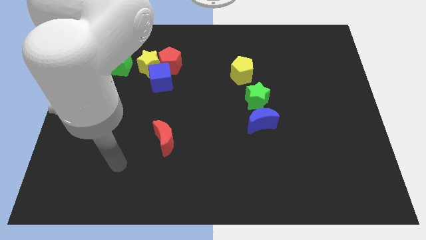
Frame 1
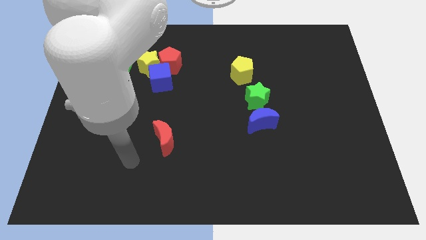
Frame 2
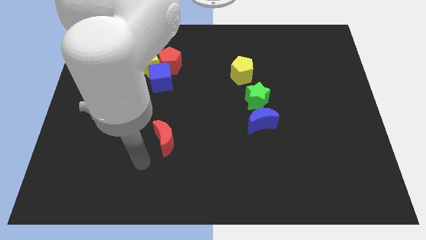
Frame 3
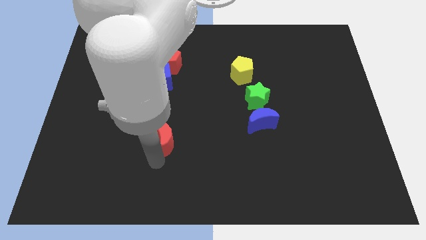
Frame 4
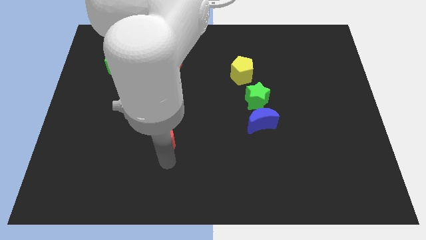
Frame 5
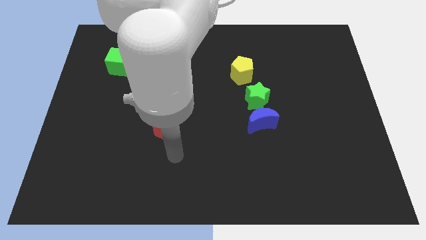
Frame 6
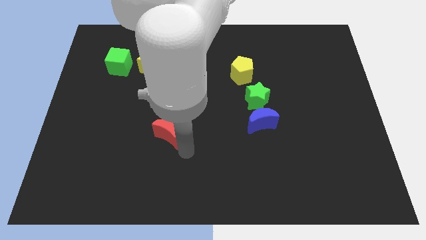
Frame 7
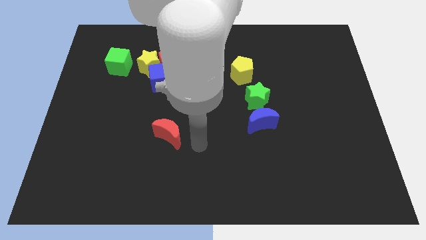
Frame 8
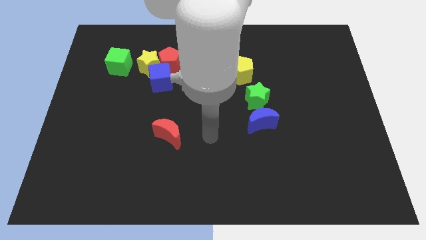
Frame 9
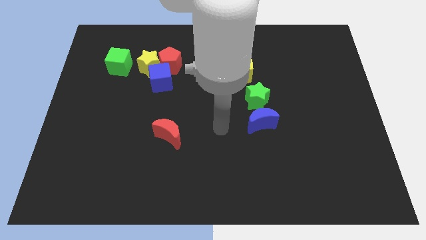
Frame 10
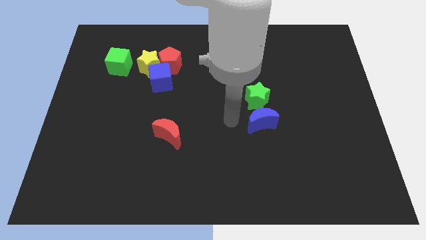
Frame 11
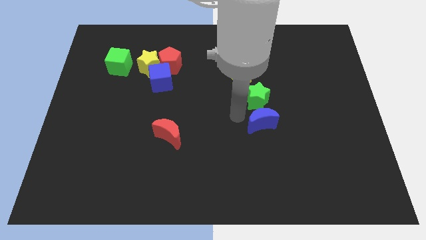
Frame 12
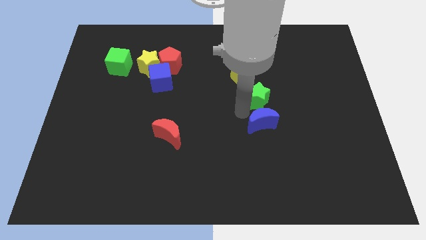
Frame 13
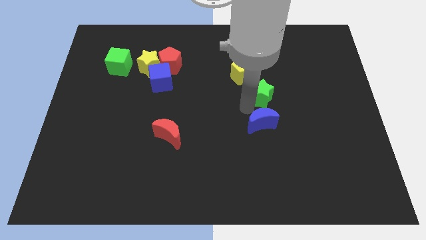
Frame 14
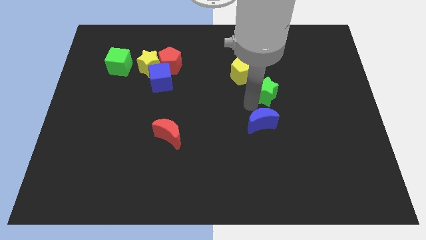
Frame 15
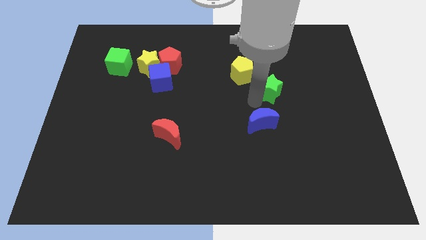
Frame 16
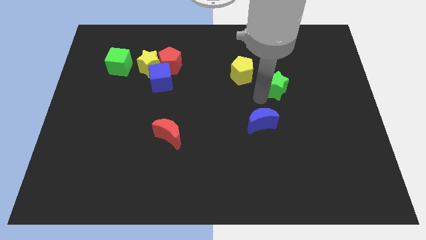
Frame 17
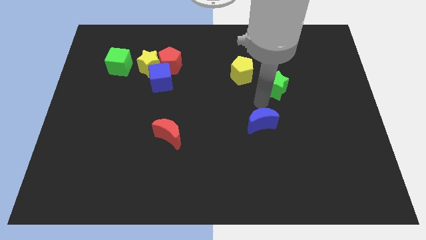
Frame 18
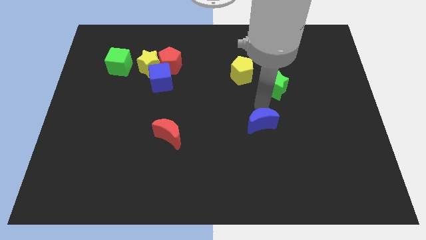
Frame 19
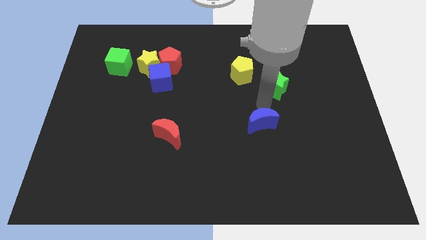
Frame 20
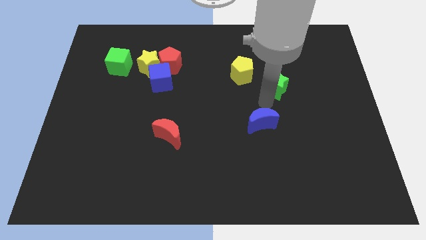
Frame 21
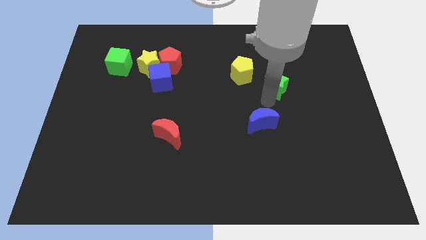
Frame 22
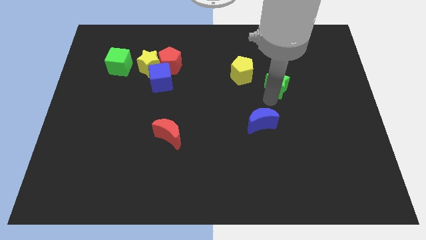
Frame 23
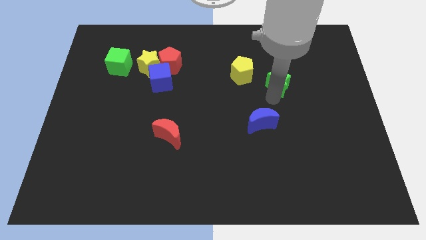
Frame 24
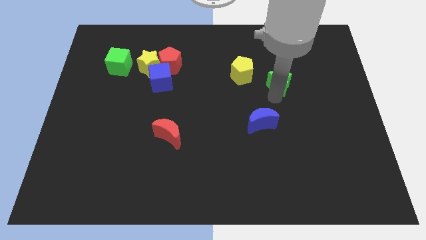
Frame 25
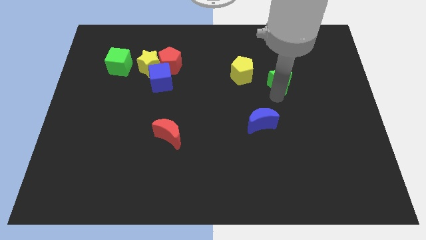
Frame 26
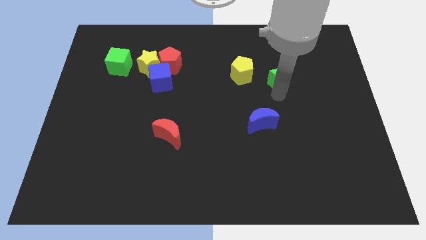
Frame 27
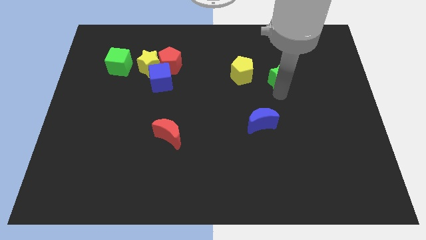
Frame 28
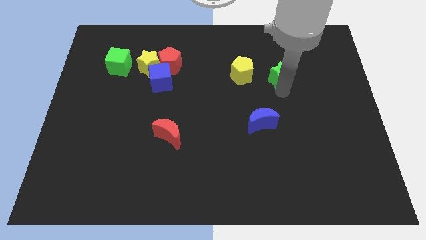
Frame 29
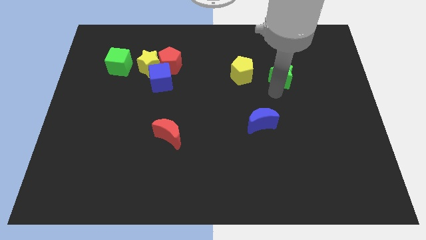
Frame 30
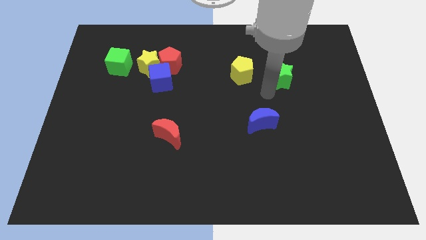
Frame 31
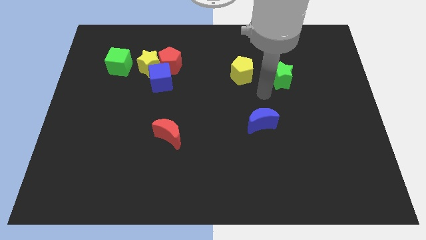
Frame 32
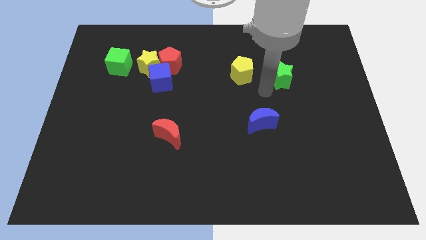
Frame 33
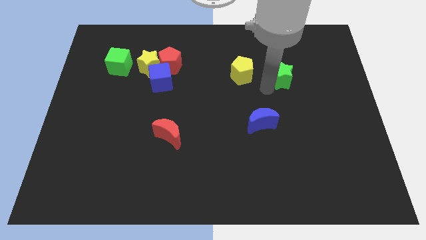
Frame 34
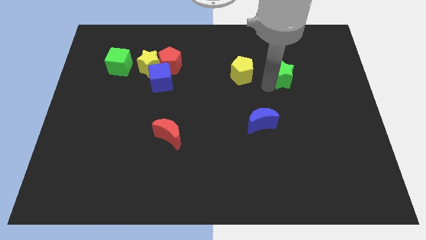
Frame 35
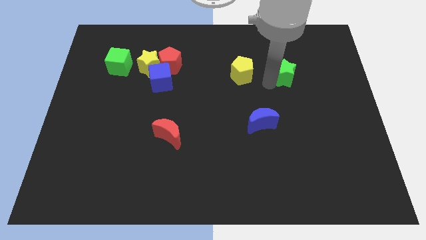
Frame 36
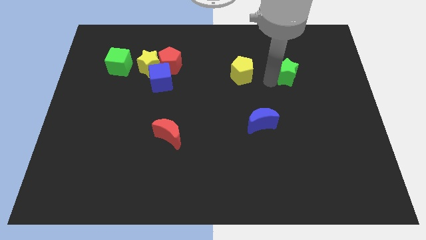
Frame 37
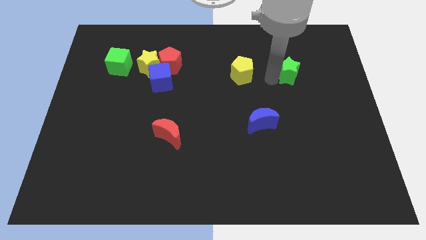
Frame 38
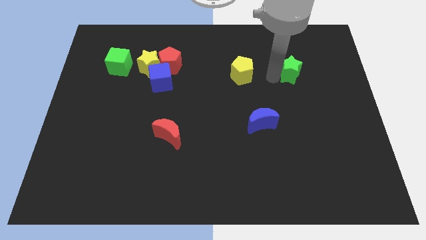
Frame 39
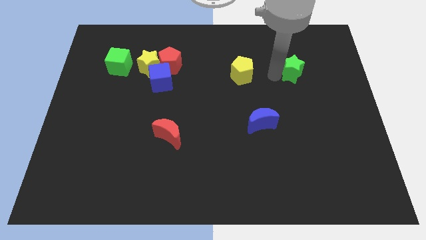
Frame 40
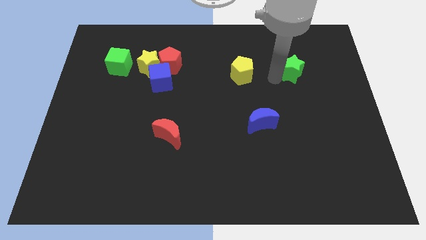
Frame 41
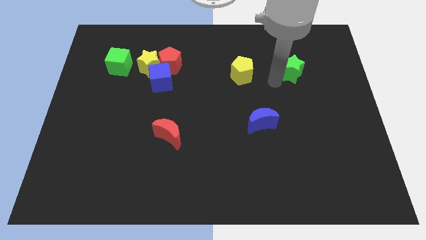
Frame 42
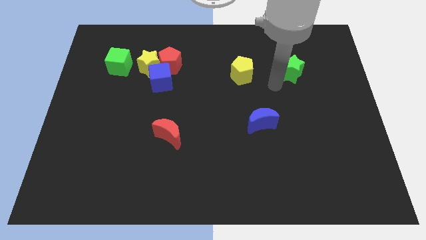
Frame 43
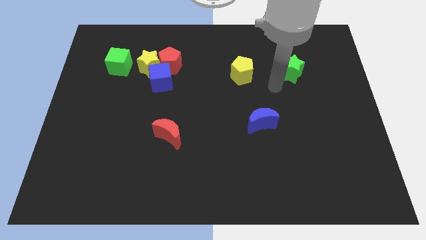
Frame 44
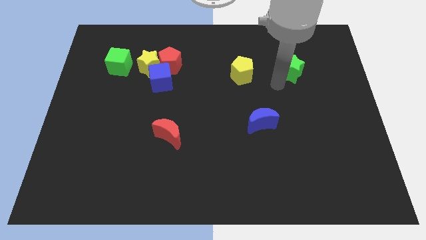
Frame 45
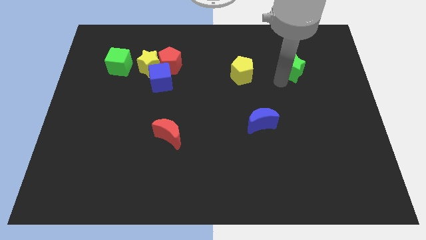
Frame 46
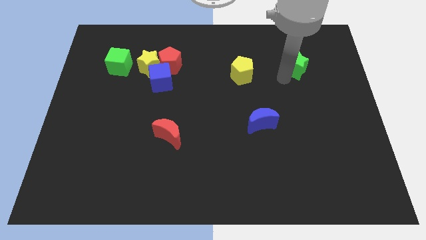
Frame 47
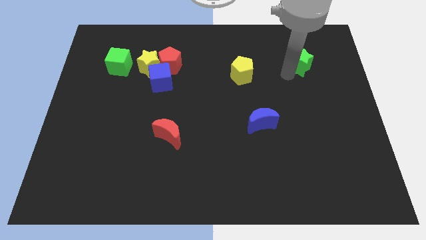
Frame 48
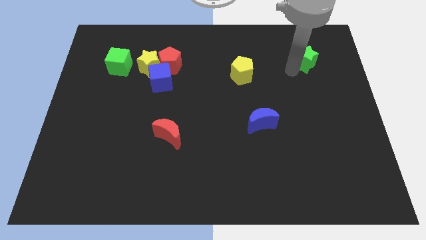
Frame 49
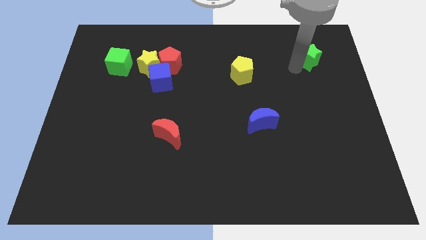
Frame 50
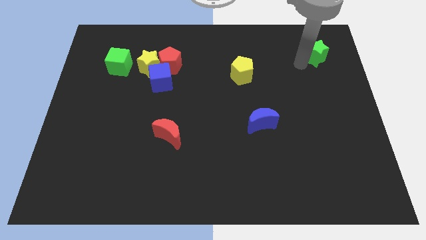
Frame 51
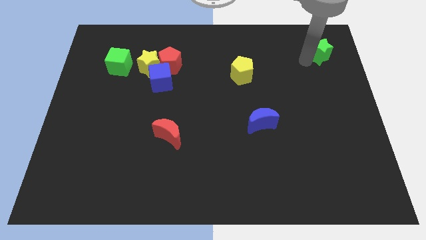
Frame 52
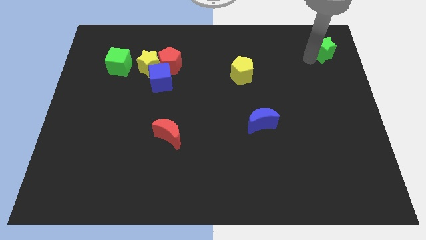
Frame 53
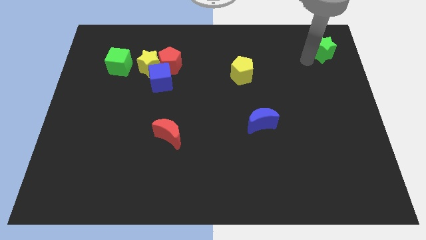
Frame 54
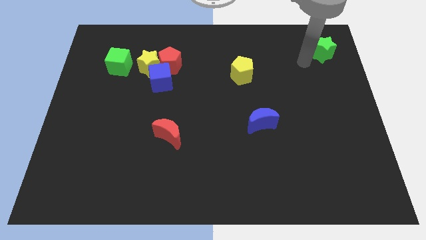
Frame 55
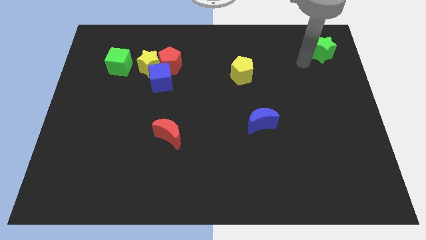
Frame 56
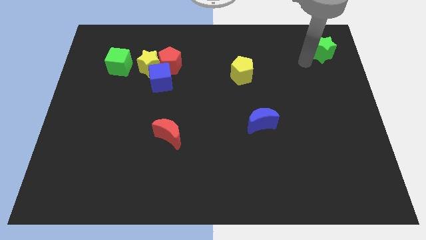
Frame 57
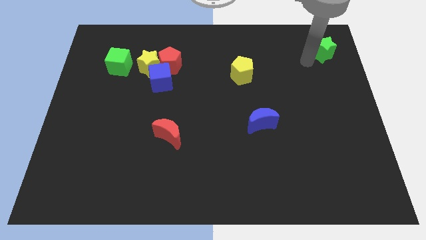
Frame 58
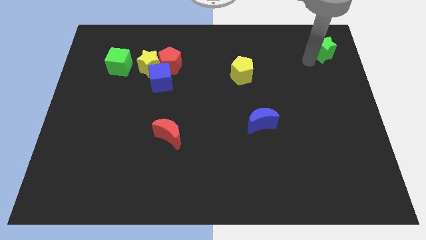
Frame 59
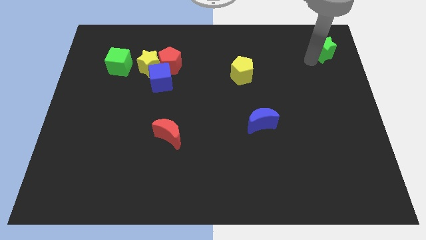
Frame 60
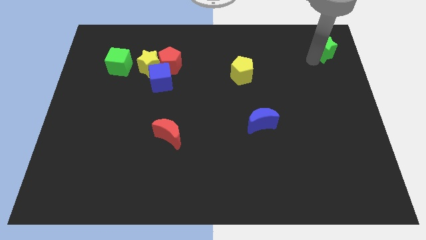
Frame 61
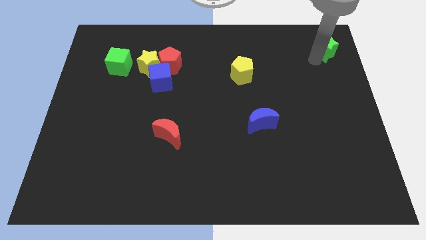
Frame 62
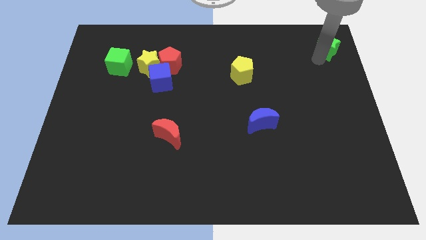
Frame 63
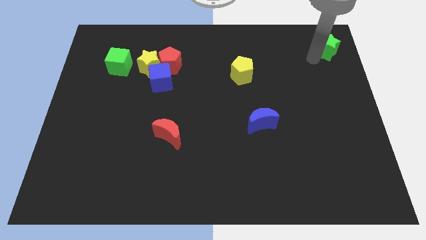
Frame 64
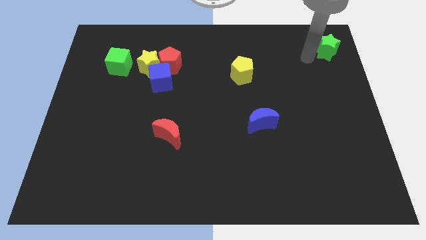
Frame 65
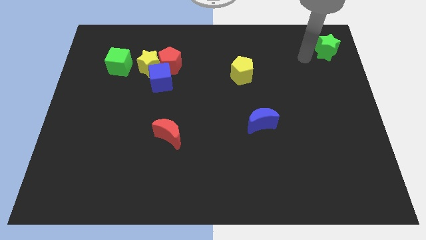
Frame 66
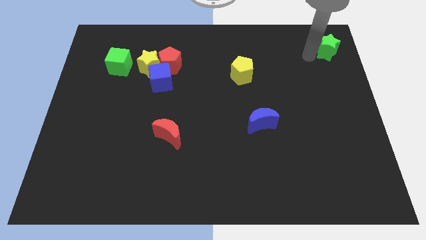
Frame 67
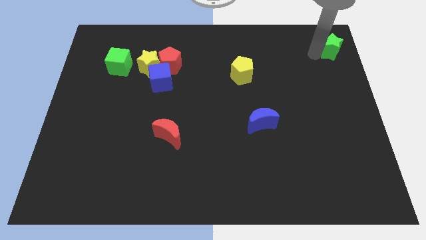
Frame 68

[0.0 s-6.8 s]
put the green star to the upper right corner
